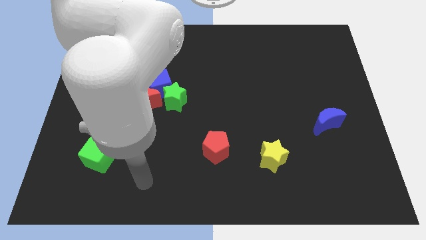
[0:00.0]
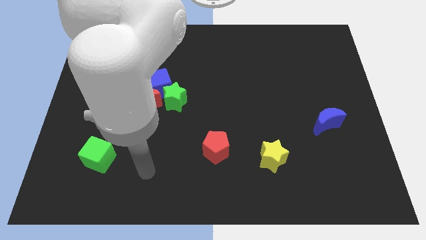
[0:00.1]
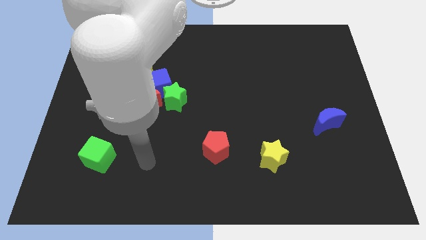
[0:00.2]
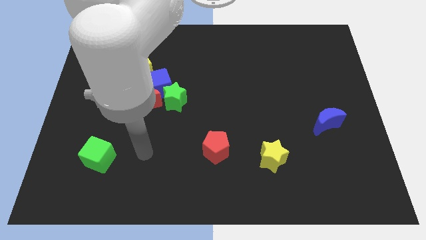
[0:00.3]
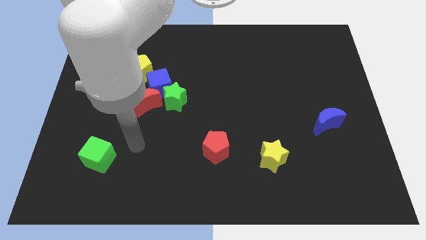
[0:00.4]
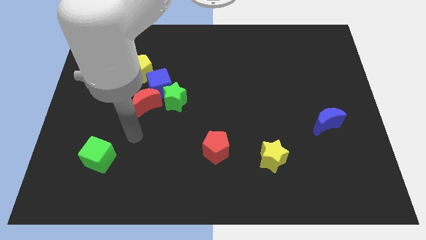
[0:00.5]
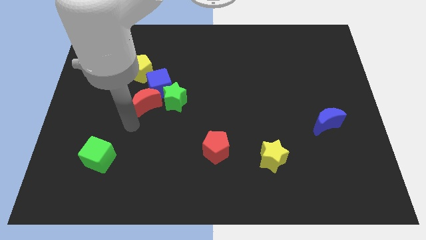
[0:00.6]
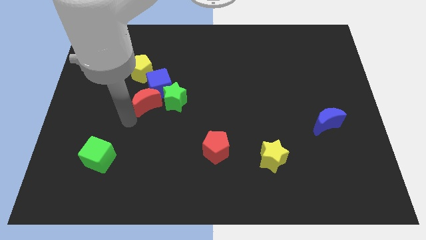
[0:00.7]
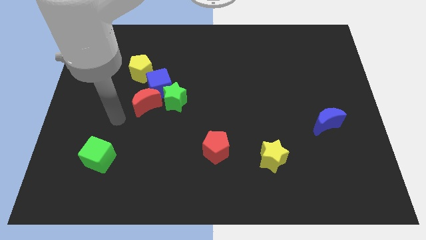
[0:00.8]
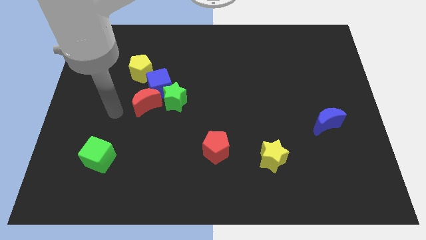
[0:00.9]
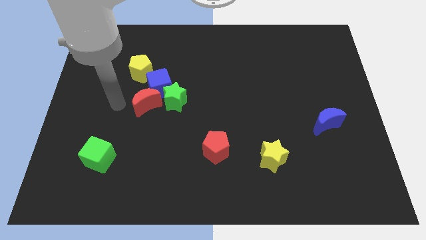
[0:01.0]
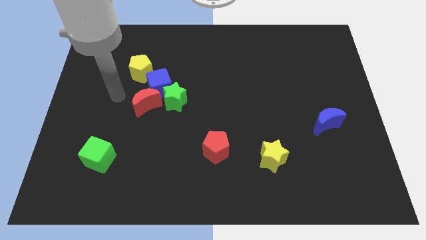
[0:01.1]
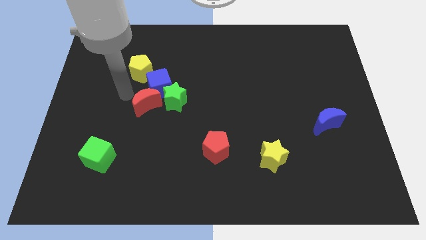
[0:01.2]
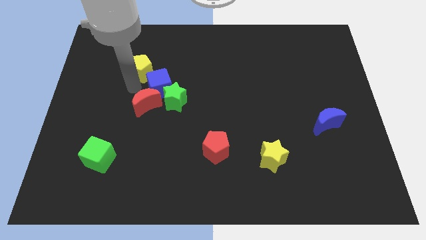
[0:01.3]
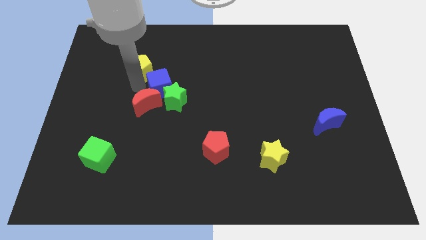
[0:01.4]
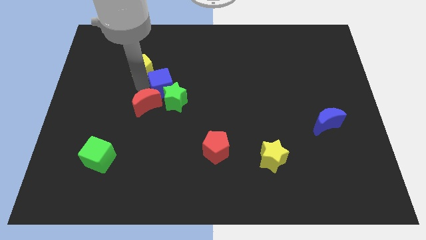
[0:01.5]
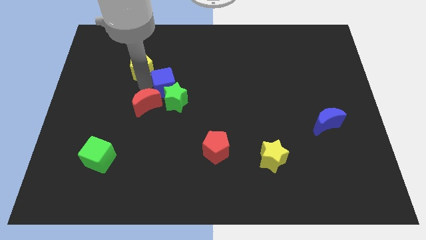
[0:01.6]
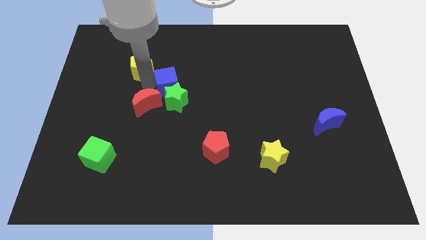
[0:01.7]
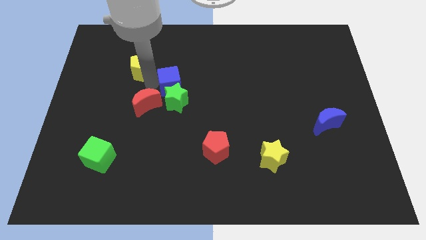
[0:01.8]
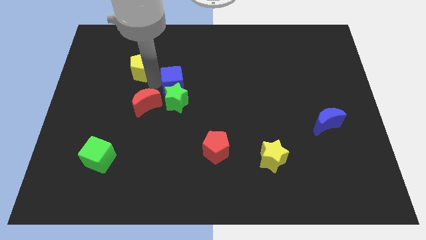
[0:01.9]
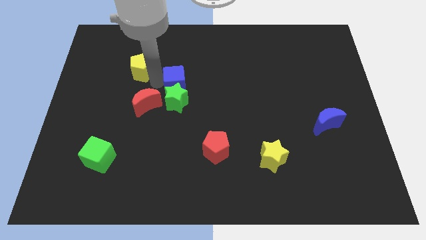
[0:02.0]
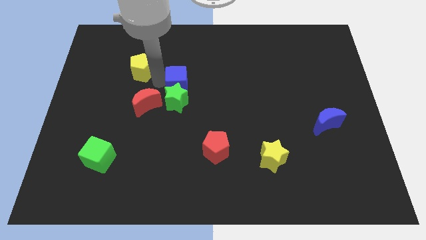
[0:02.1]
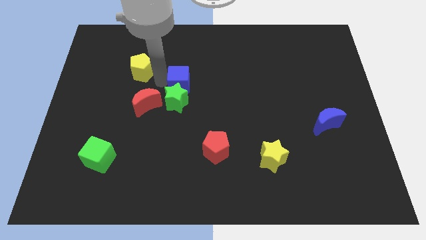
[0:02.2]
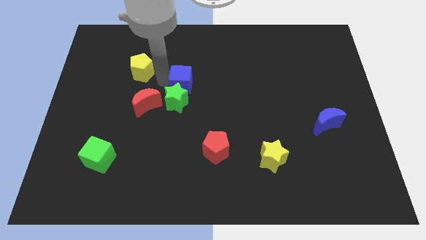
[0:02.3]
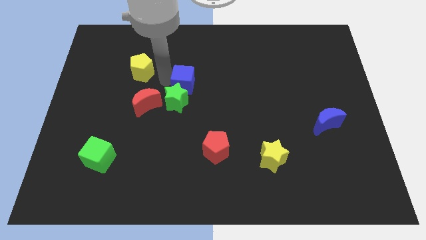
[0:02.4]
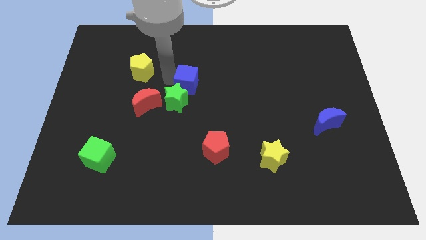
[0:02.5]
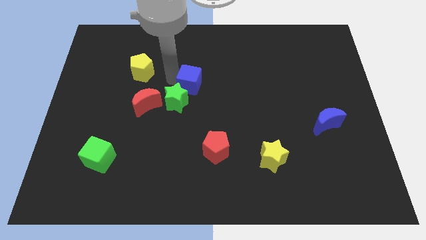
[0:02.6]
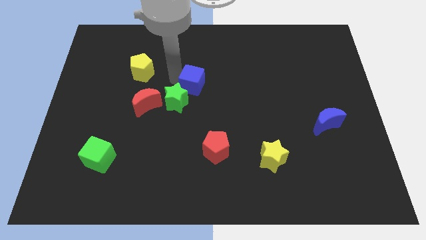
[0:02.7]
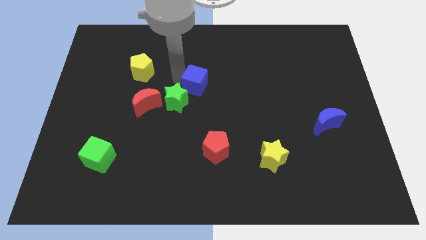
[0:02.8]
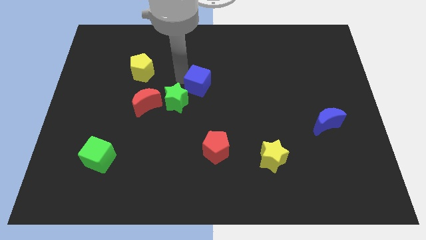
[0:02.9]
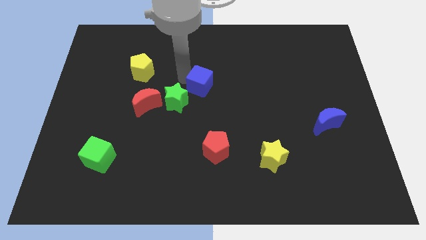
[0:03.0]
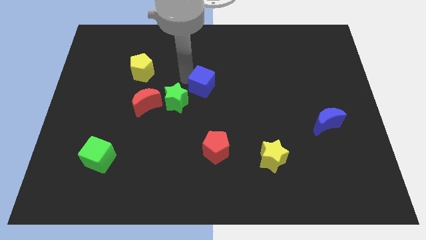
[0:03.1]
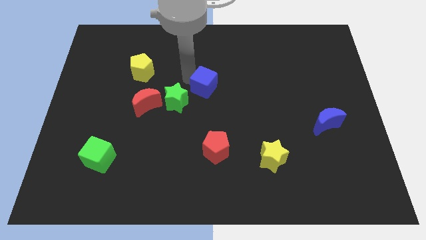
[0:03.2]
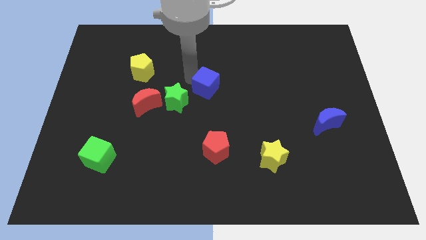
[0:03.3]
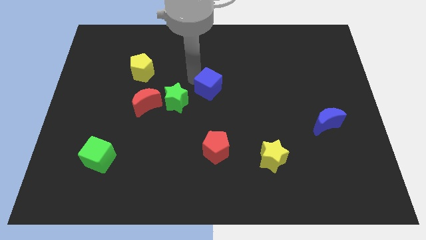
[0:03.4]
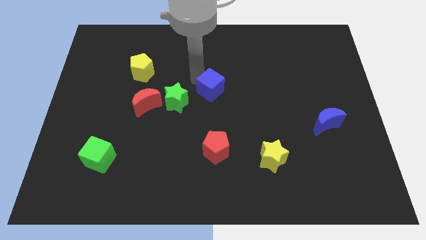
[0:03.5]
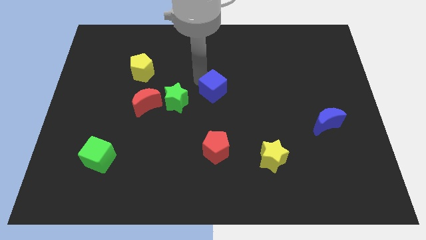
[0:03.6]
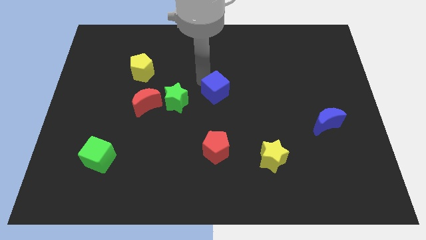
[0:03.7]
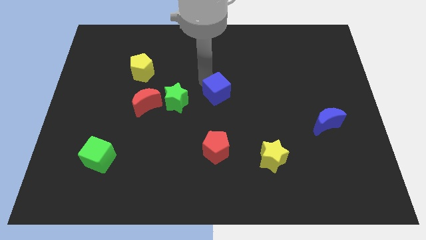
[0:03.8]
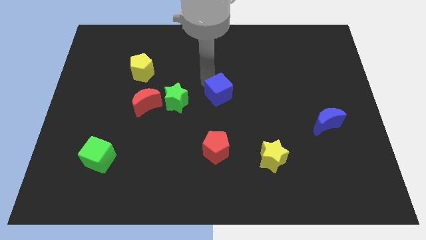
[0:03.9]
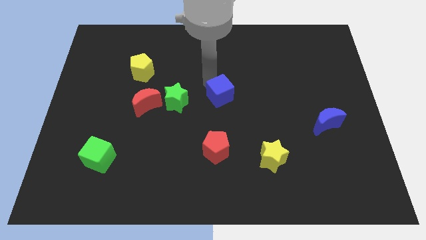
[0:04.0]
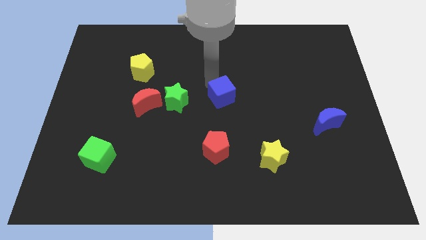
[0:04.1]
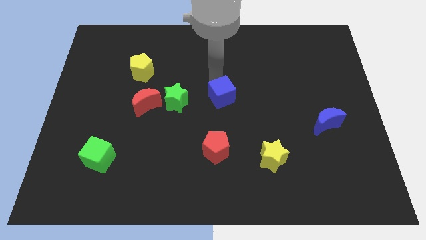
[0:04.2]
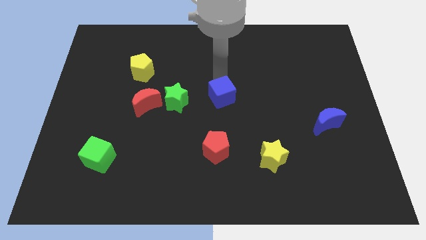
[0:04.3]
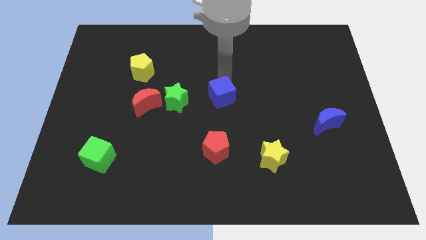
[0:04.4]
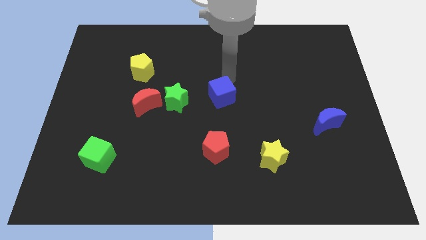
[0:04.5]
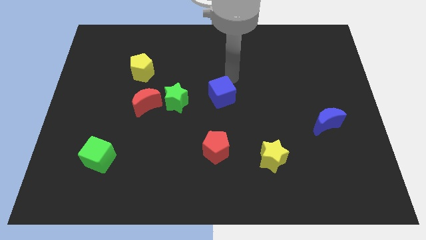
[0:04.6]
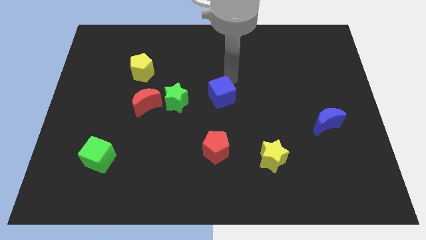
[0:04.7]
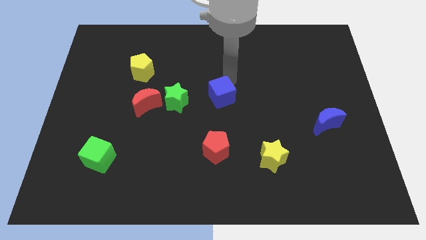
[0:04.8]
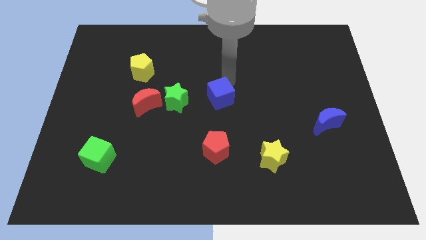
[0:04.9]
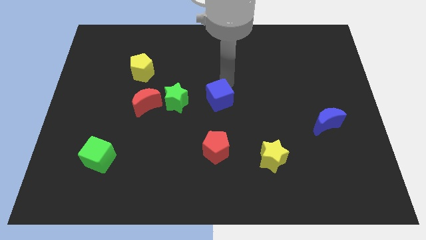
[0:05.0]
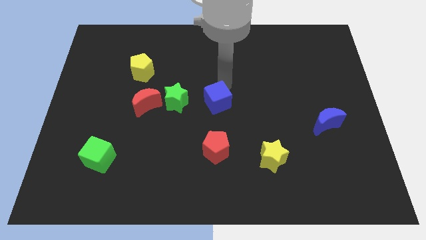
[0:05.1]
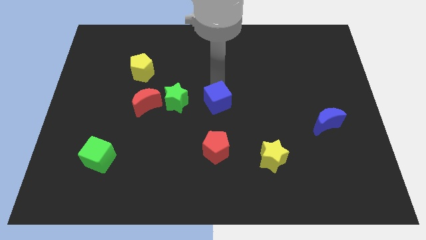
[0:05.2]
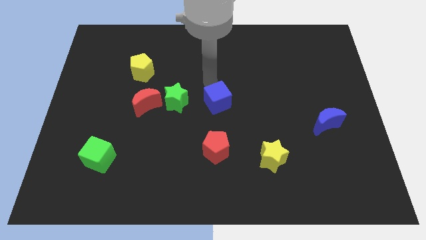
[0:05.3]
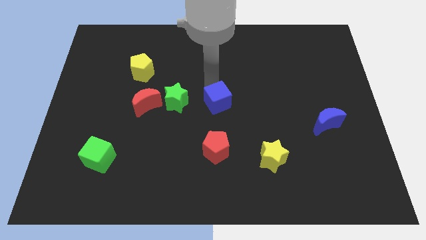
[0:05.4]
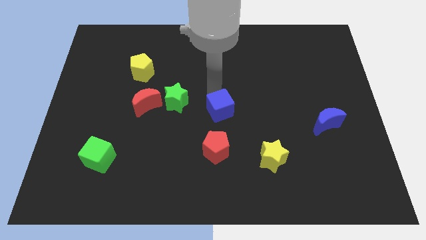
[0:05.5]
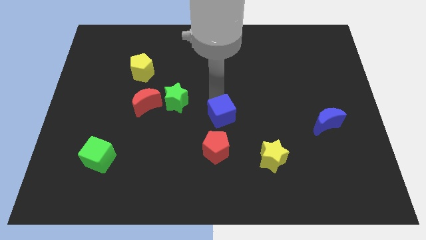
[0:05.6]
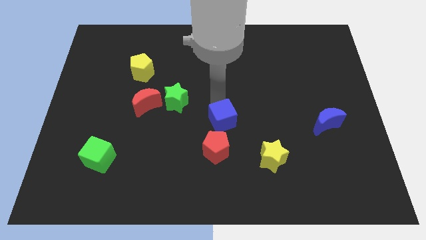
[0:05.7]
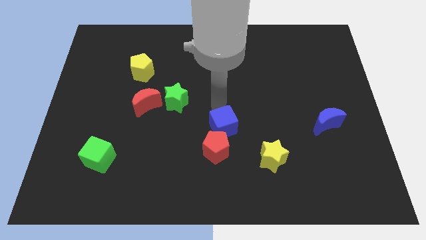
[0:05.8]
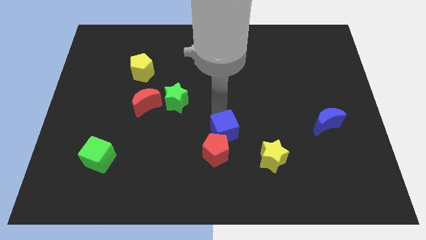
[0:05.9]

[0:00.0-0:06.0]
move the blue cube downwards and then to the right

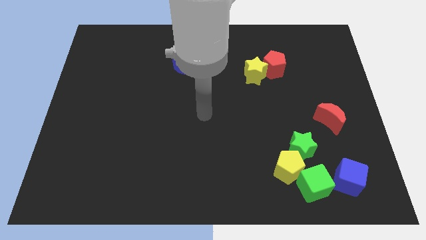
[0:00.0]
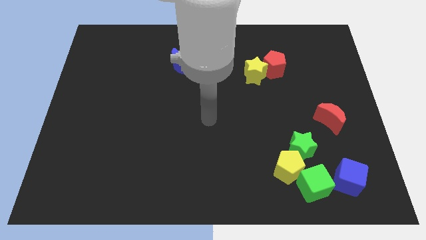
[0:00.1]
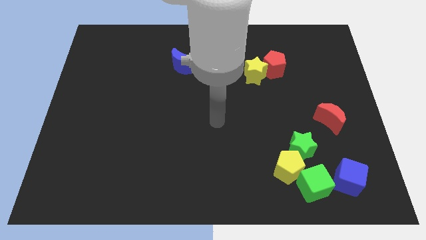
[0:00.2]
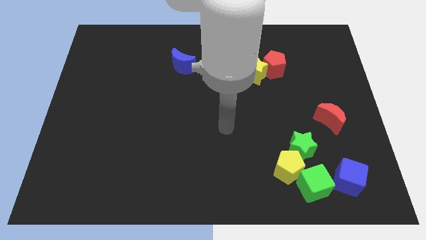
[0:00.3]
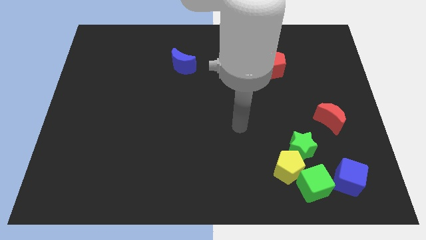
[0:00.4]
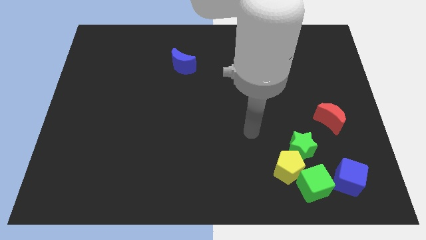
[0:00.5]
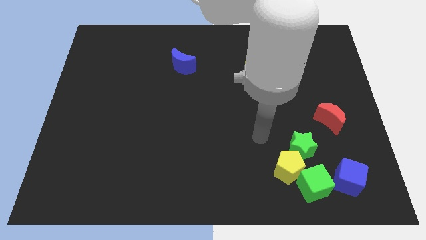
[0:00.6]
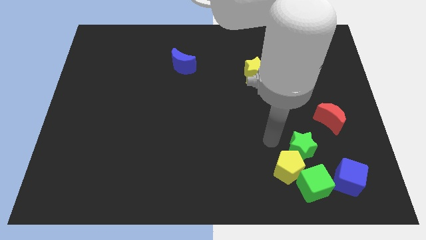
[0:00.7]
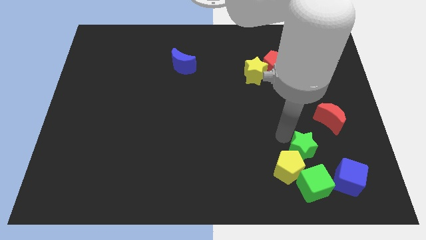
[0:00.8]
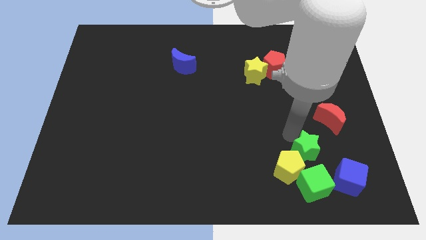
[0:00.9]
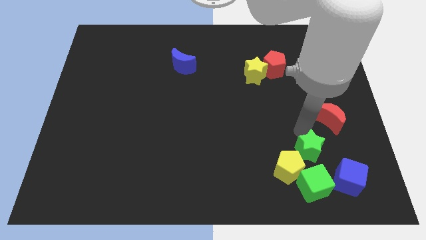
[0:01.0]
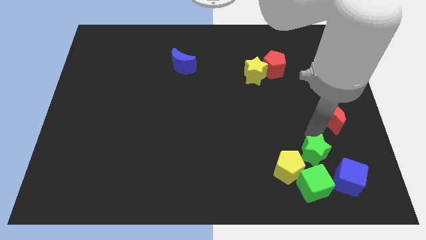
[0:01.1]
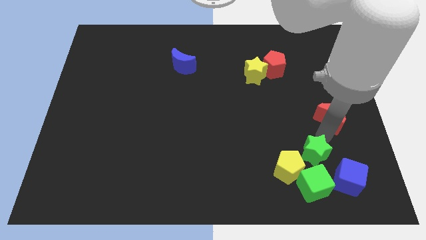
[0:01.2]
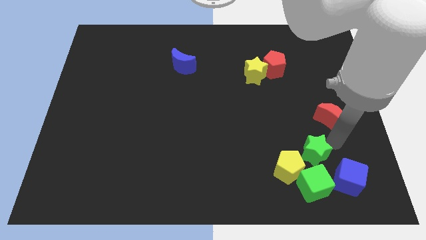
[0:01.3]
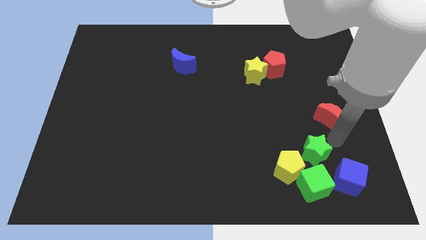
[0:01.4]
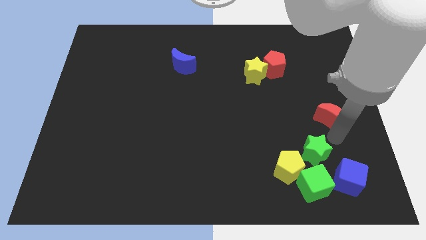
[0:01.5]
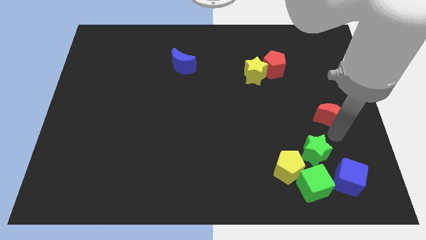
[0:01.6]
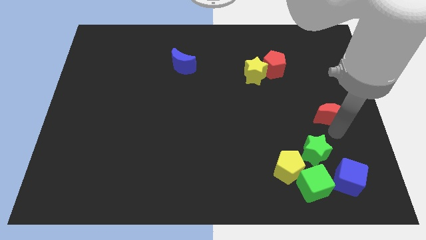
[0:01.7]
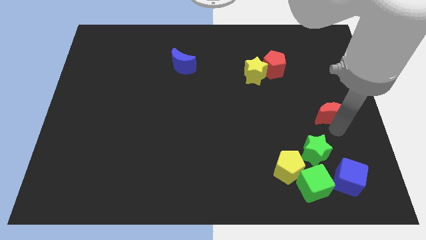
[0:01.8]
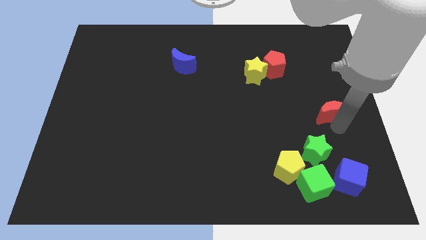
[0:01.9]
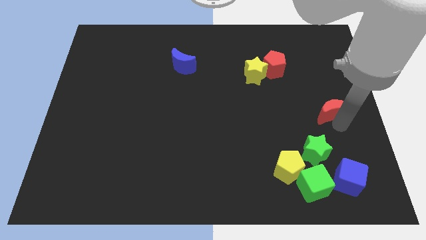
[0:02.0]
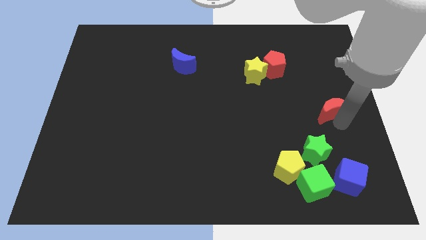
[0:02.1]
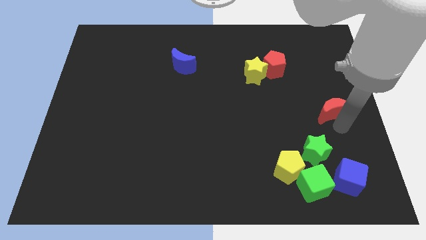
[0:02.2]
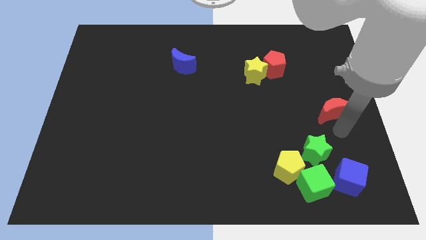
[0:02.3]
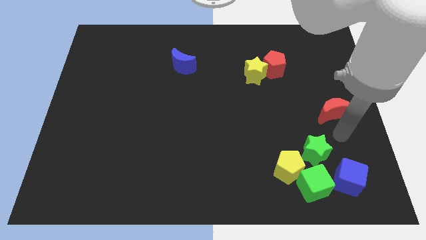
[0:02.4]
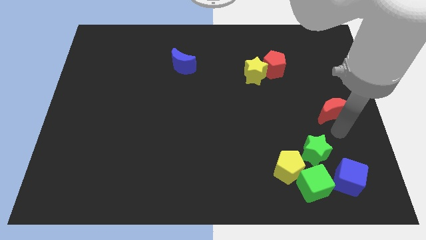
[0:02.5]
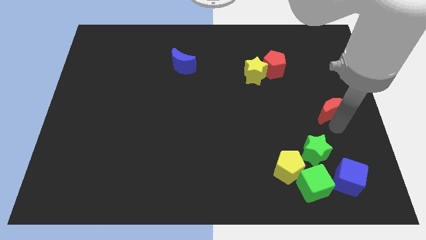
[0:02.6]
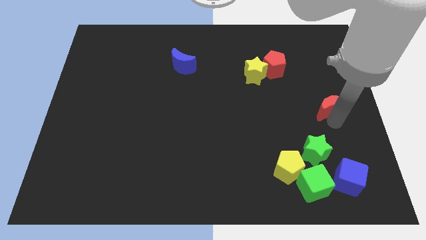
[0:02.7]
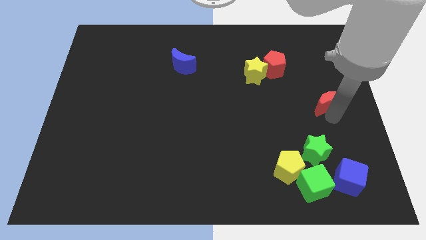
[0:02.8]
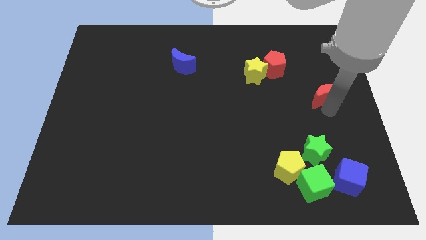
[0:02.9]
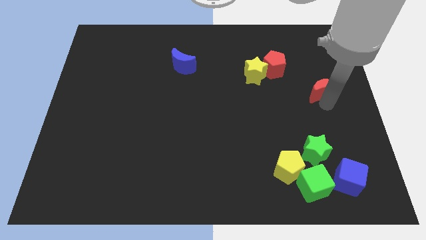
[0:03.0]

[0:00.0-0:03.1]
move the red moon up somewhat
